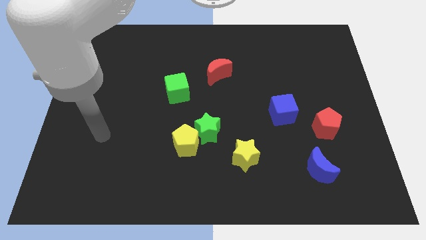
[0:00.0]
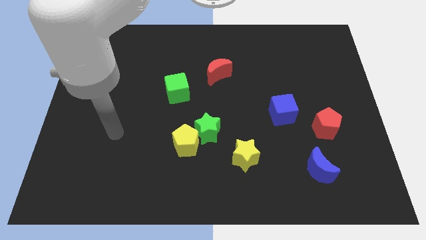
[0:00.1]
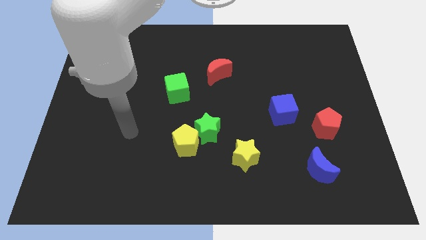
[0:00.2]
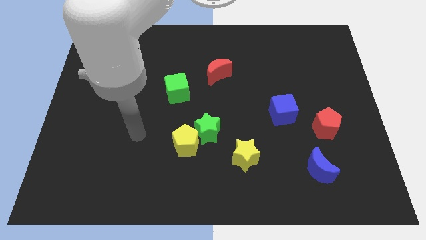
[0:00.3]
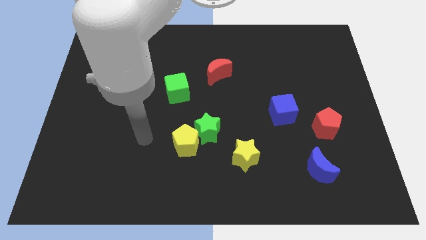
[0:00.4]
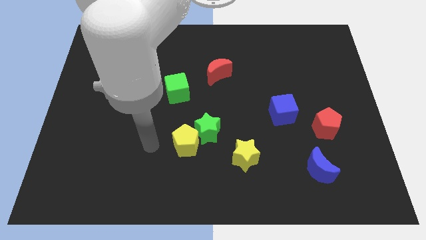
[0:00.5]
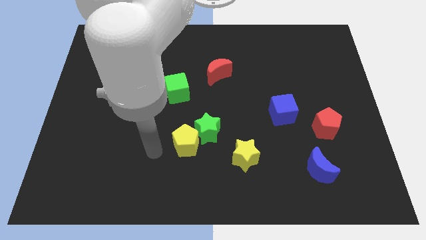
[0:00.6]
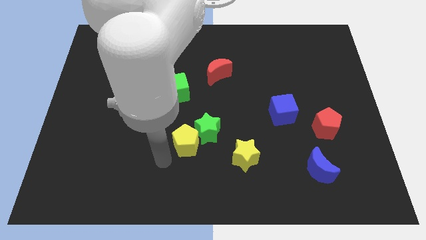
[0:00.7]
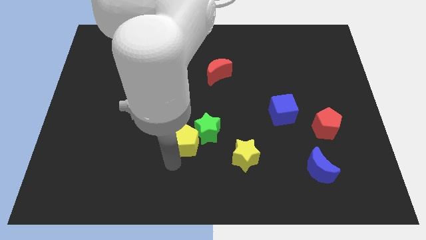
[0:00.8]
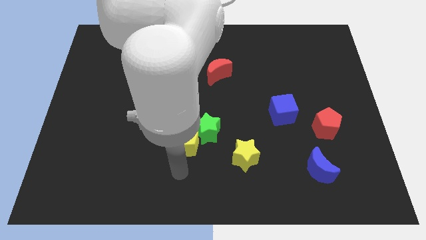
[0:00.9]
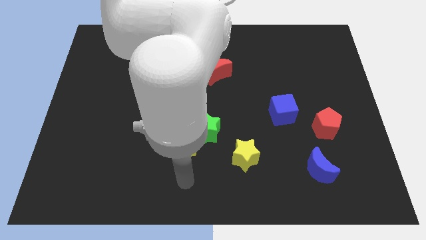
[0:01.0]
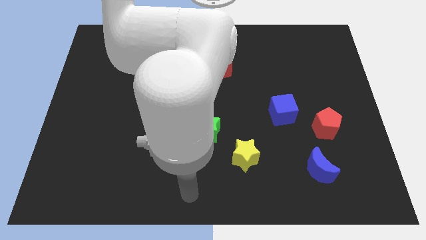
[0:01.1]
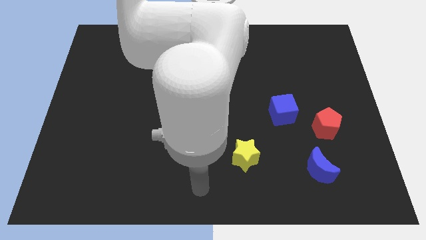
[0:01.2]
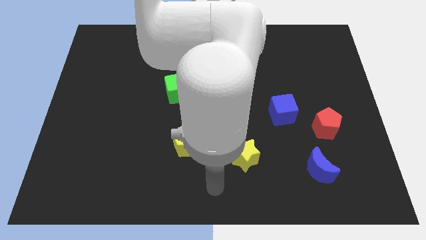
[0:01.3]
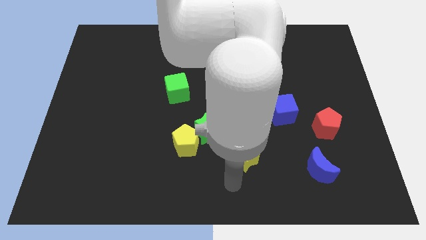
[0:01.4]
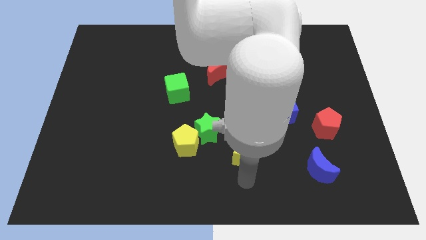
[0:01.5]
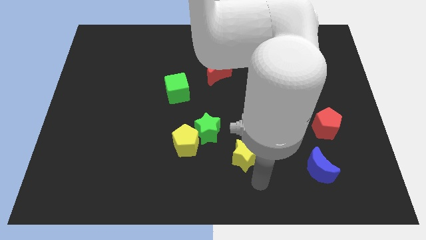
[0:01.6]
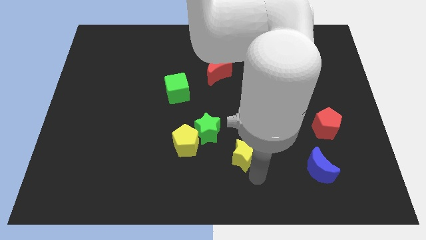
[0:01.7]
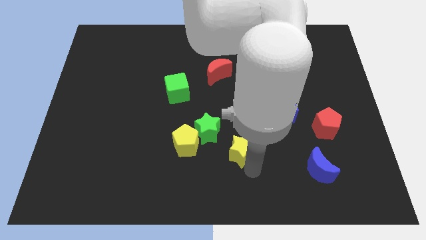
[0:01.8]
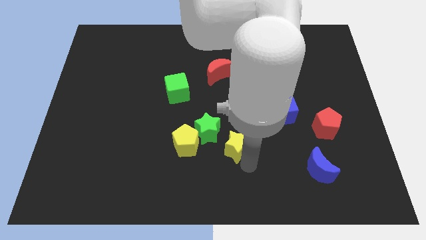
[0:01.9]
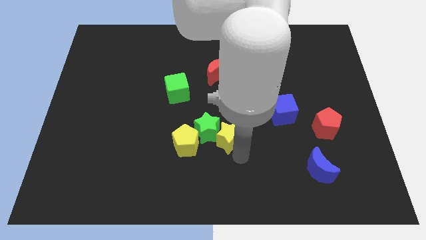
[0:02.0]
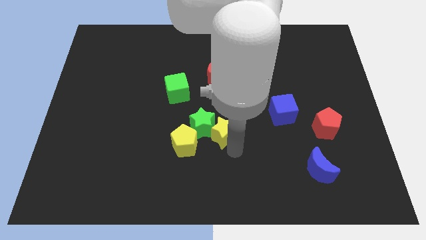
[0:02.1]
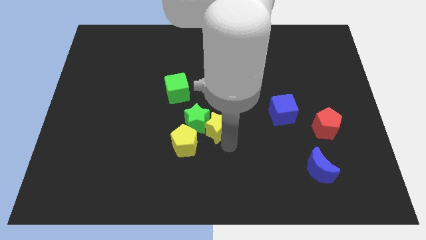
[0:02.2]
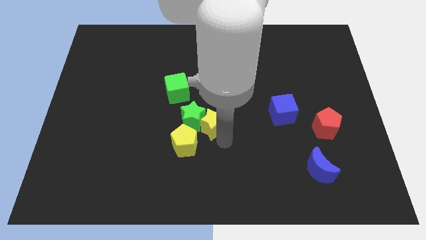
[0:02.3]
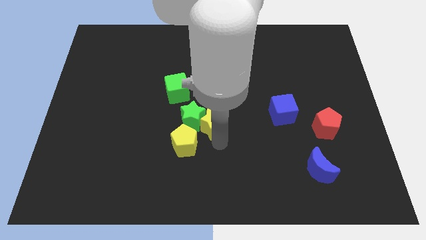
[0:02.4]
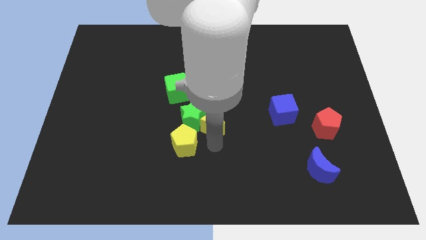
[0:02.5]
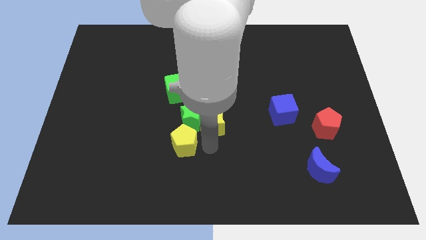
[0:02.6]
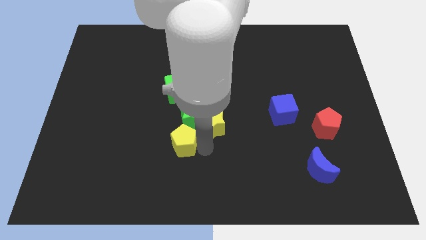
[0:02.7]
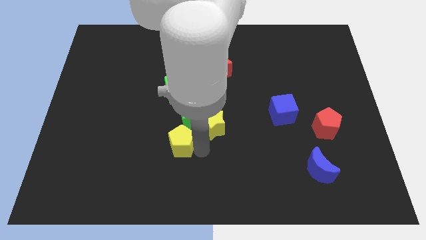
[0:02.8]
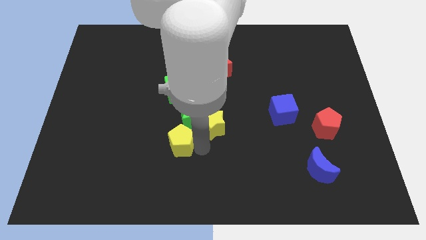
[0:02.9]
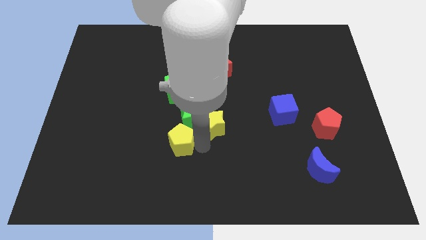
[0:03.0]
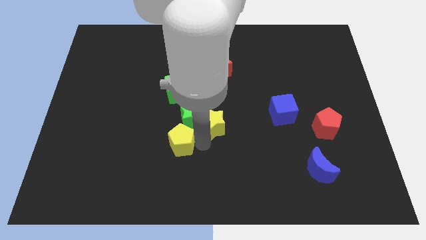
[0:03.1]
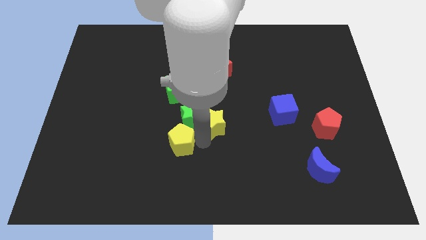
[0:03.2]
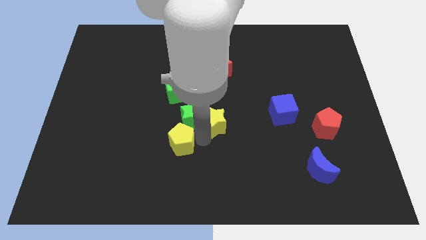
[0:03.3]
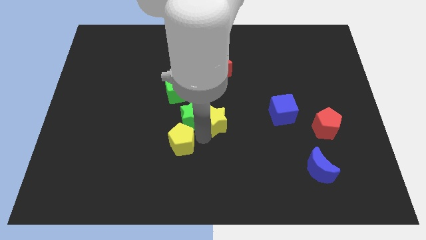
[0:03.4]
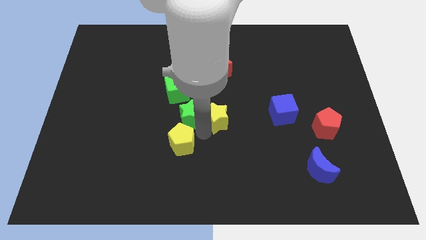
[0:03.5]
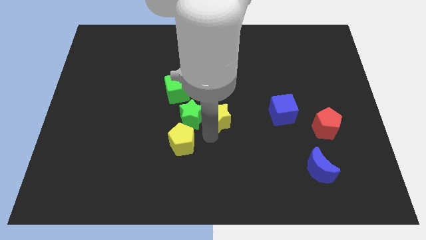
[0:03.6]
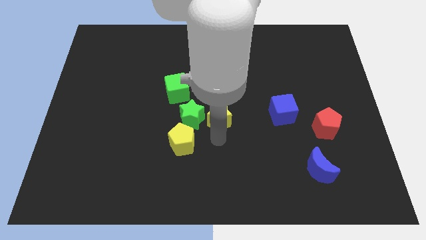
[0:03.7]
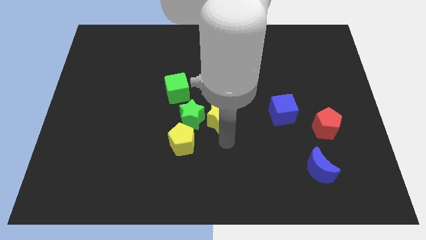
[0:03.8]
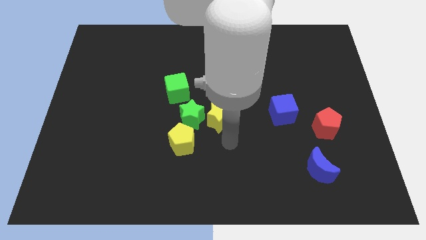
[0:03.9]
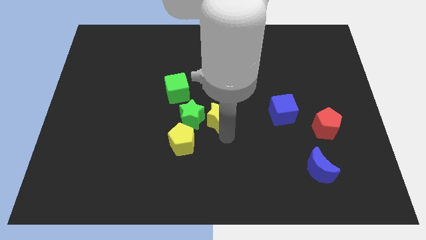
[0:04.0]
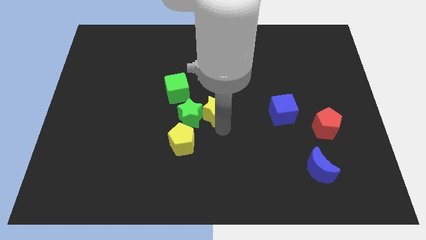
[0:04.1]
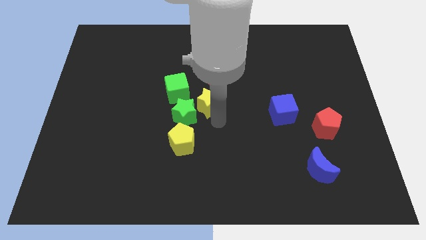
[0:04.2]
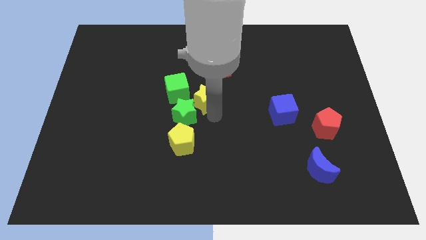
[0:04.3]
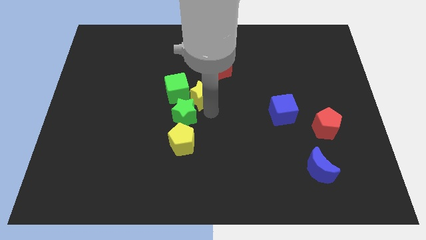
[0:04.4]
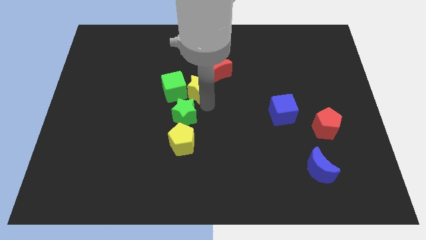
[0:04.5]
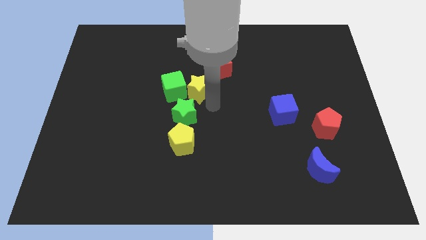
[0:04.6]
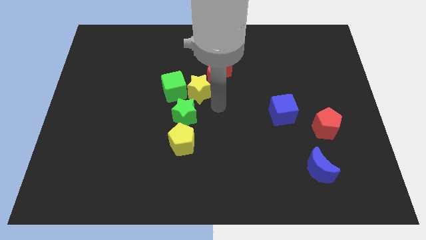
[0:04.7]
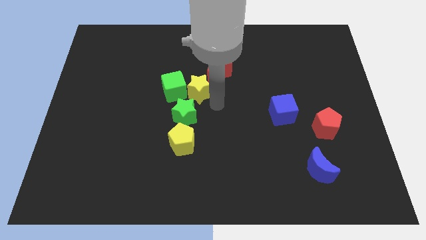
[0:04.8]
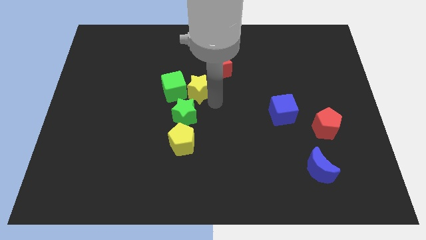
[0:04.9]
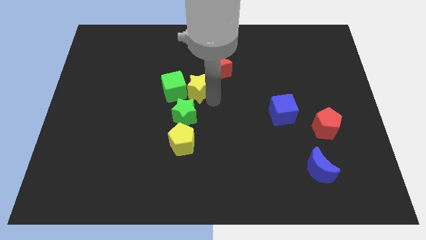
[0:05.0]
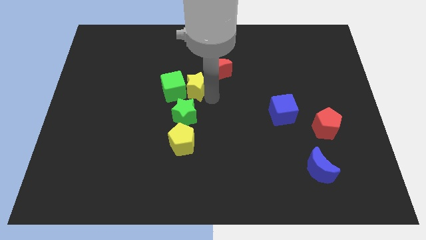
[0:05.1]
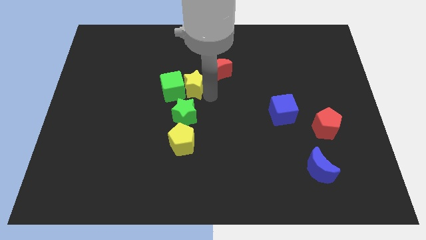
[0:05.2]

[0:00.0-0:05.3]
push the yellow star diagonally upwards and to the left

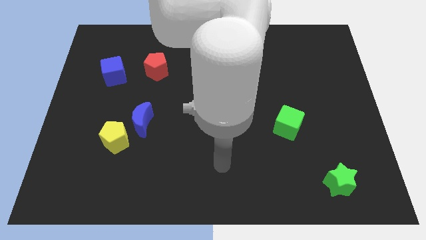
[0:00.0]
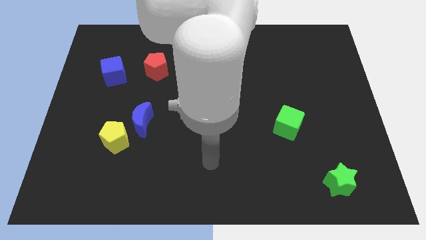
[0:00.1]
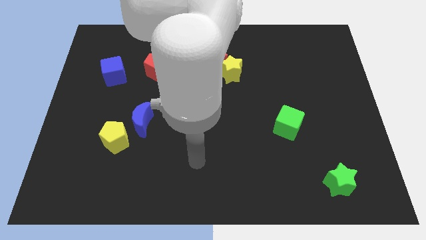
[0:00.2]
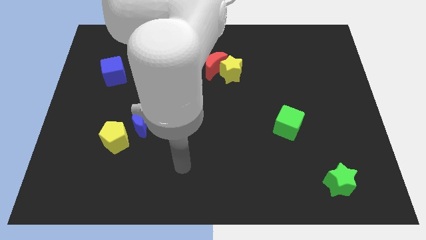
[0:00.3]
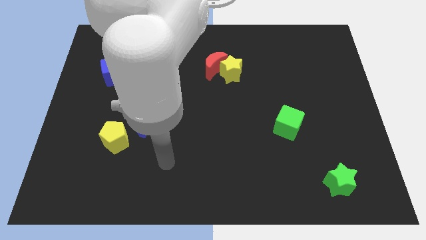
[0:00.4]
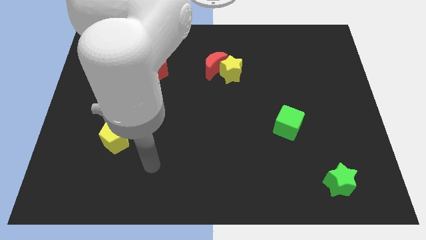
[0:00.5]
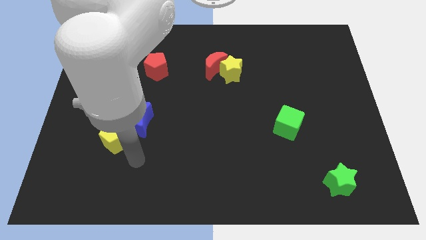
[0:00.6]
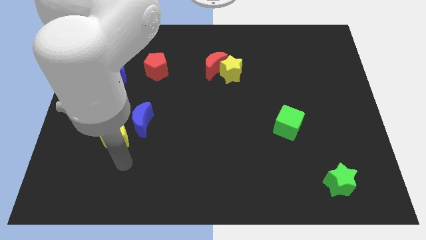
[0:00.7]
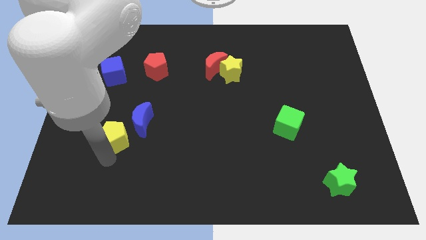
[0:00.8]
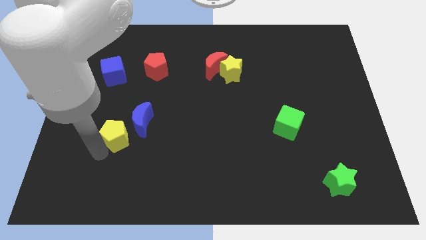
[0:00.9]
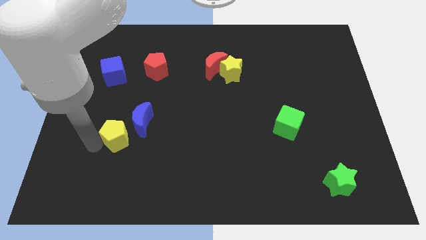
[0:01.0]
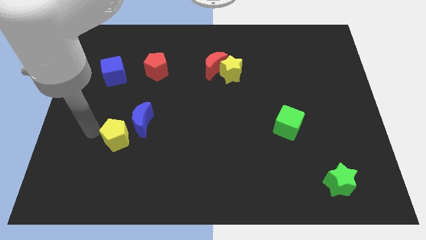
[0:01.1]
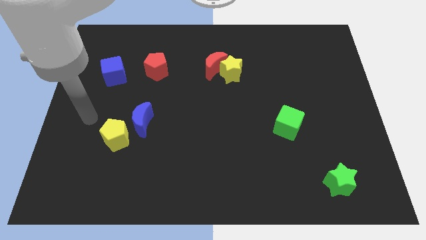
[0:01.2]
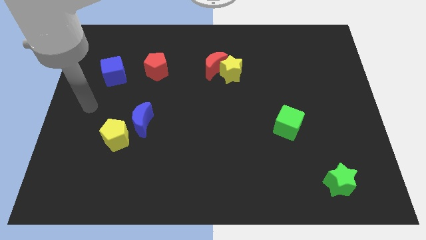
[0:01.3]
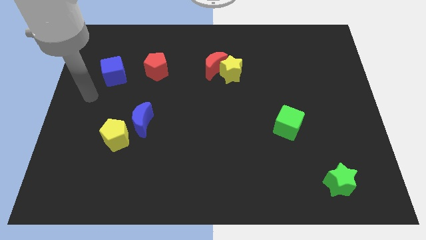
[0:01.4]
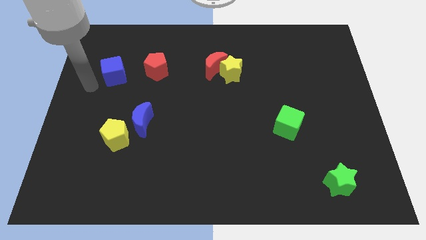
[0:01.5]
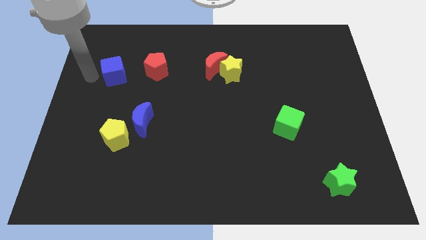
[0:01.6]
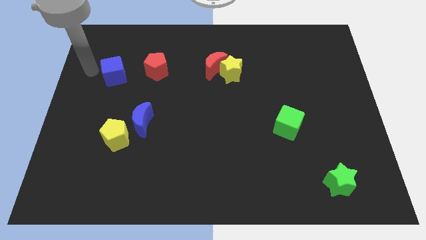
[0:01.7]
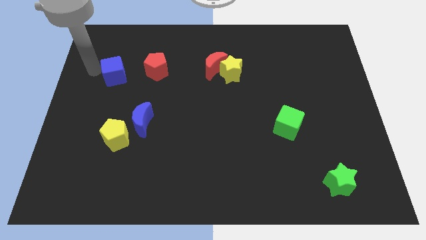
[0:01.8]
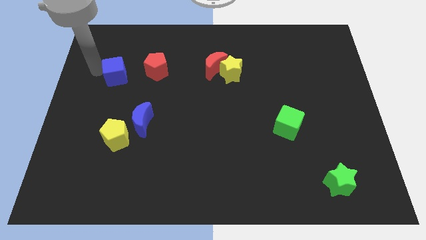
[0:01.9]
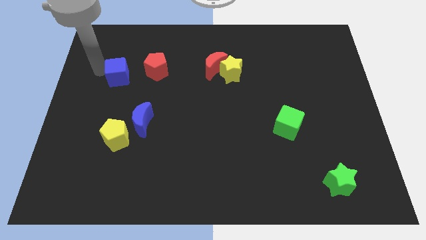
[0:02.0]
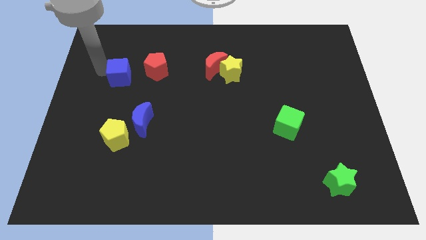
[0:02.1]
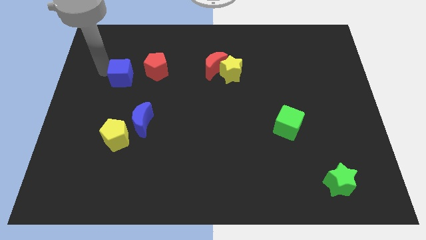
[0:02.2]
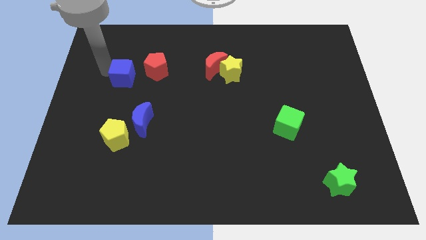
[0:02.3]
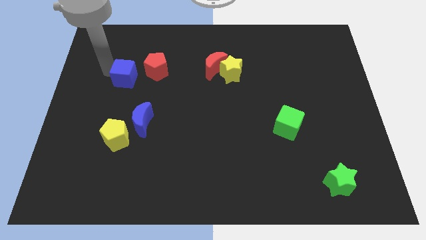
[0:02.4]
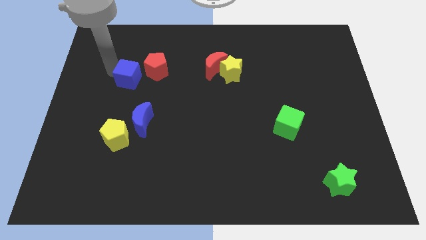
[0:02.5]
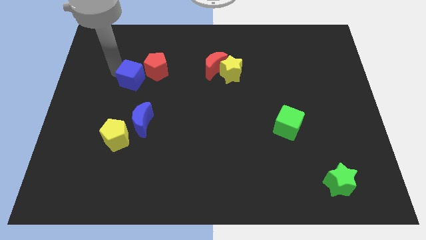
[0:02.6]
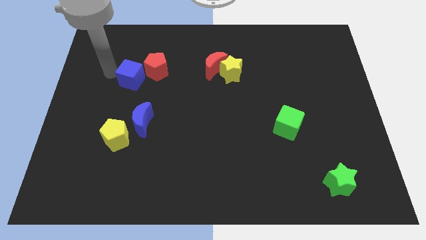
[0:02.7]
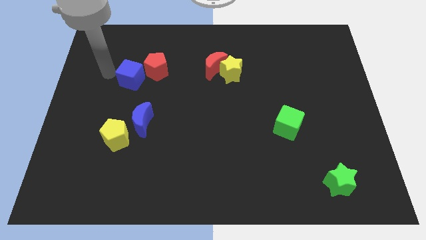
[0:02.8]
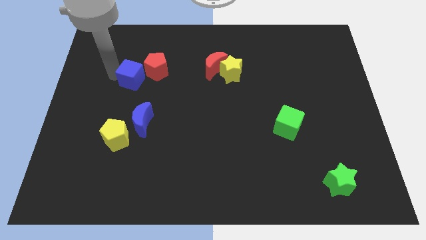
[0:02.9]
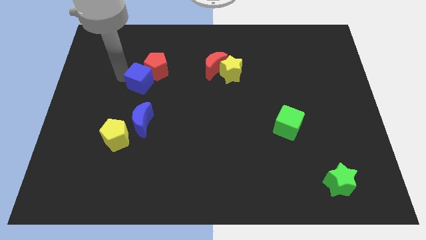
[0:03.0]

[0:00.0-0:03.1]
move the blue cube to the right a bit
